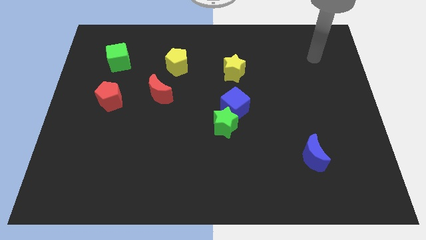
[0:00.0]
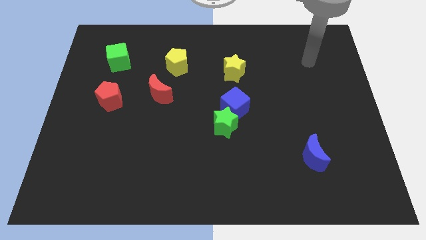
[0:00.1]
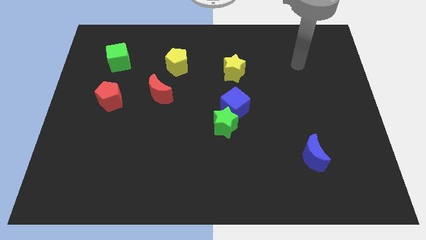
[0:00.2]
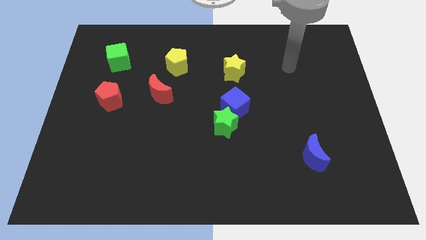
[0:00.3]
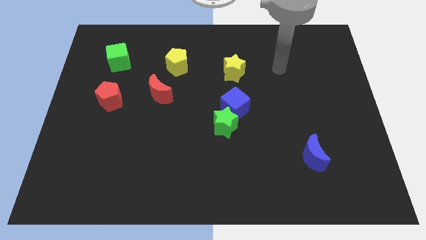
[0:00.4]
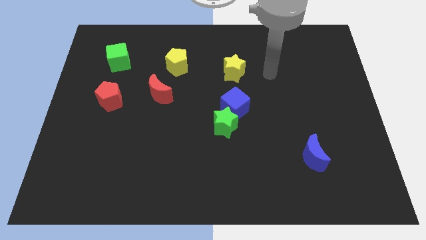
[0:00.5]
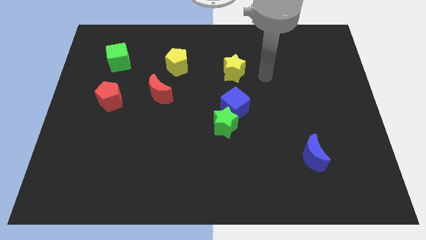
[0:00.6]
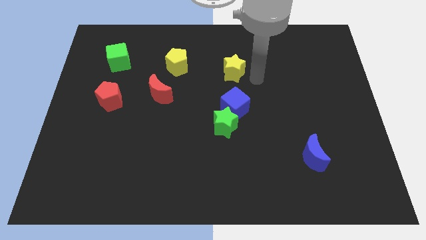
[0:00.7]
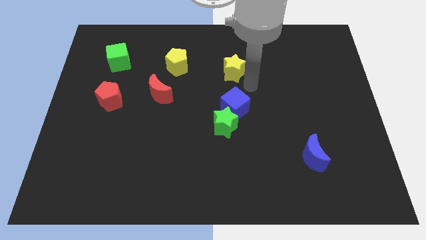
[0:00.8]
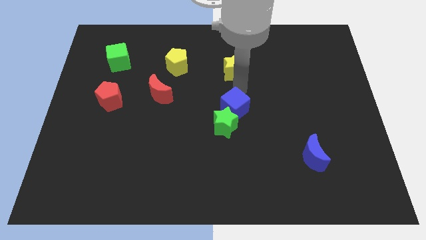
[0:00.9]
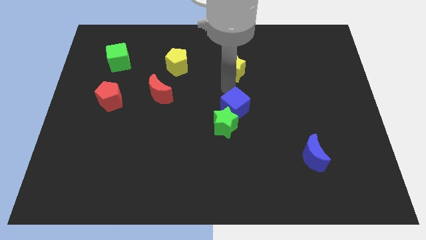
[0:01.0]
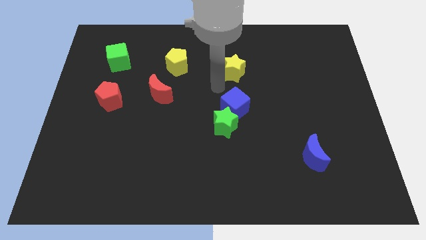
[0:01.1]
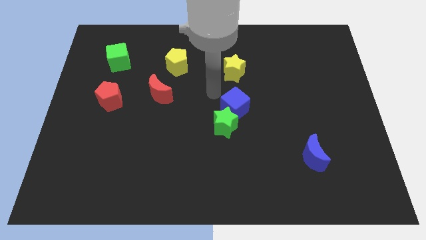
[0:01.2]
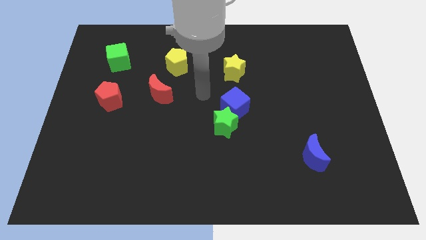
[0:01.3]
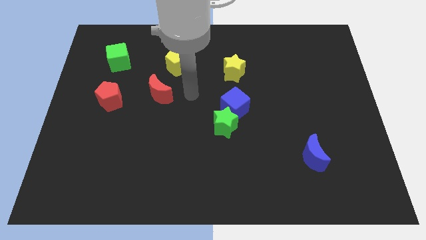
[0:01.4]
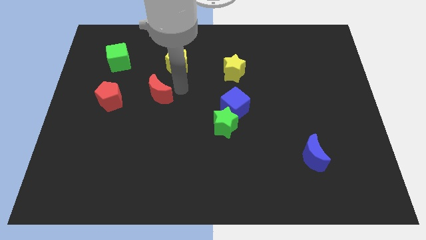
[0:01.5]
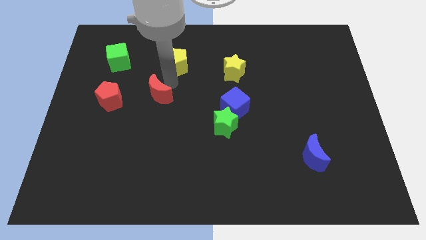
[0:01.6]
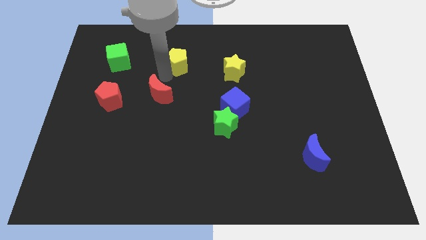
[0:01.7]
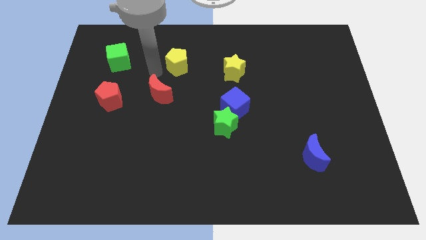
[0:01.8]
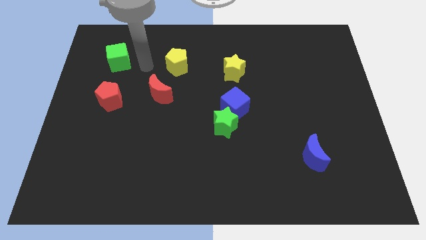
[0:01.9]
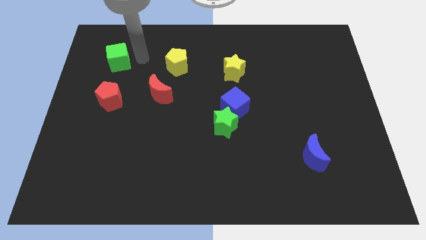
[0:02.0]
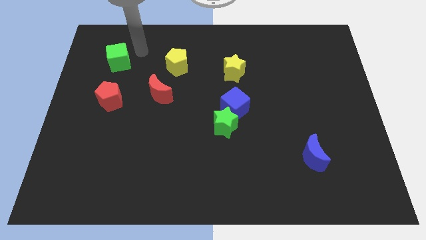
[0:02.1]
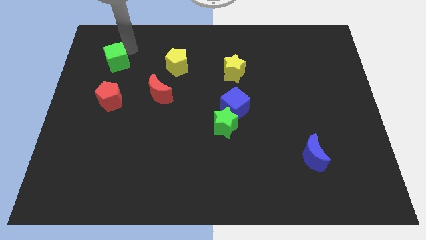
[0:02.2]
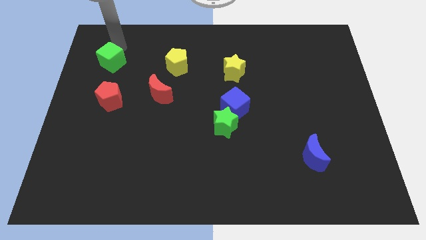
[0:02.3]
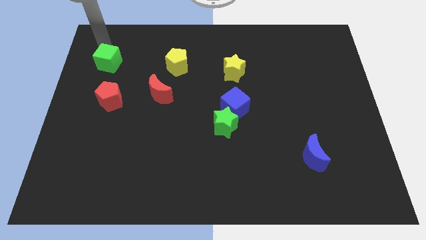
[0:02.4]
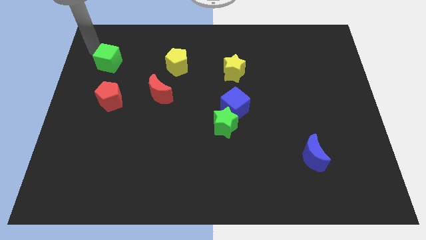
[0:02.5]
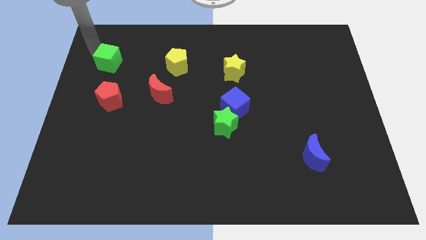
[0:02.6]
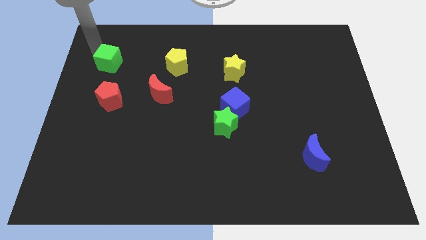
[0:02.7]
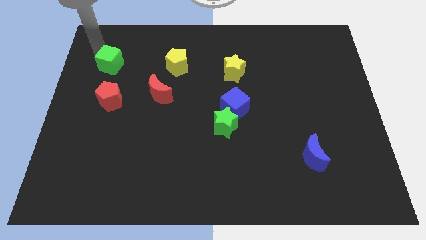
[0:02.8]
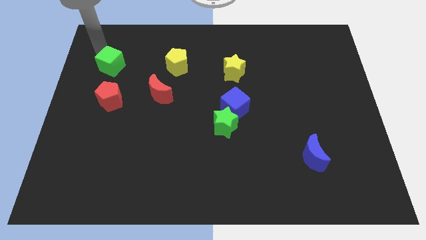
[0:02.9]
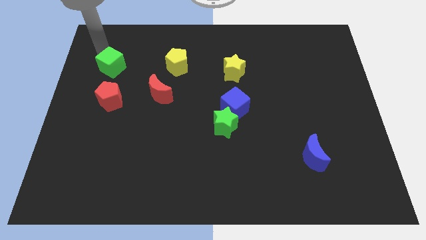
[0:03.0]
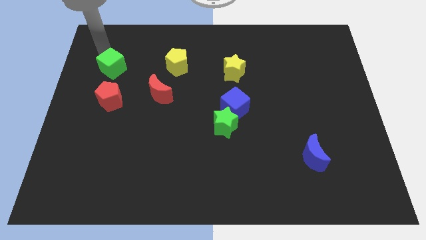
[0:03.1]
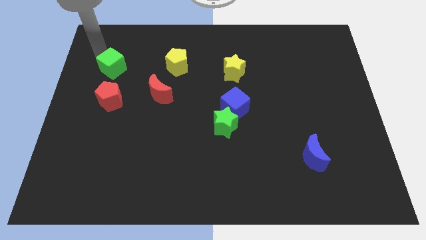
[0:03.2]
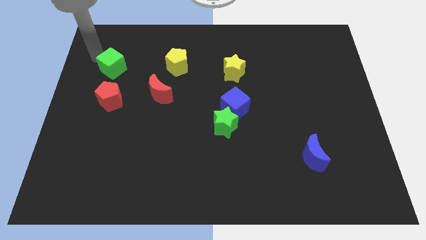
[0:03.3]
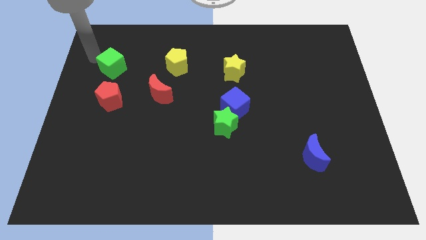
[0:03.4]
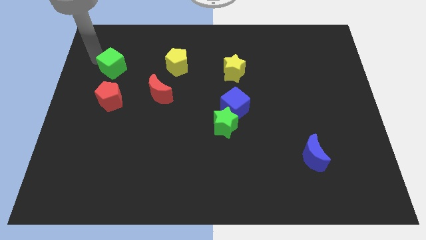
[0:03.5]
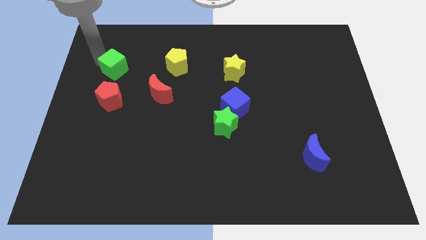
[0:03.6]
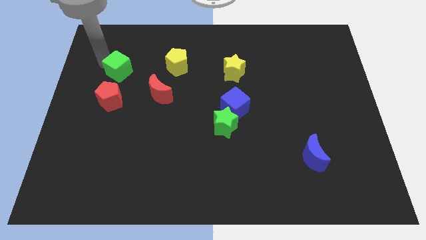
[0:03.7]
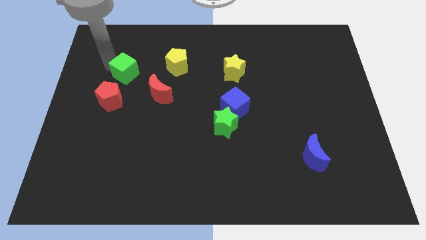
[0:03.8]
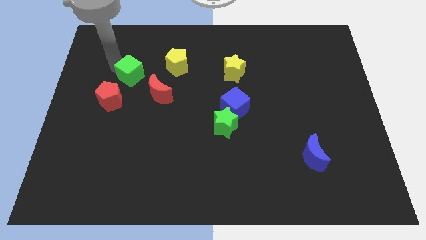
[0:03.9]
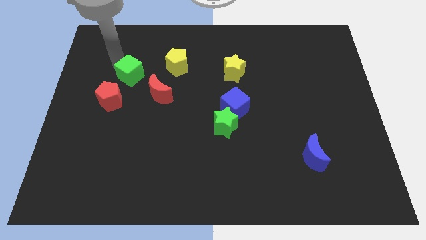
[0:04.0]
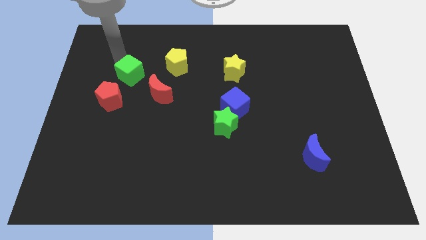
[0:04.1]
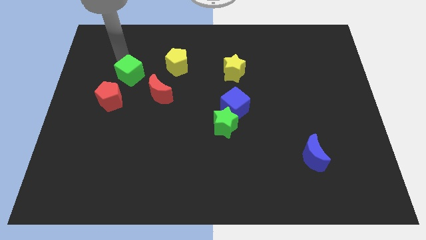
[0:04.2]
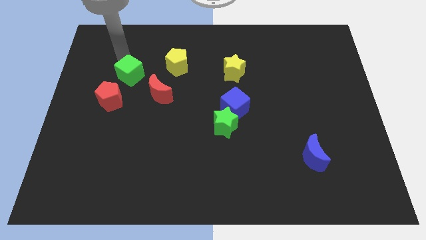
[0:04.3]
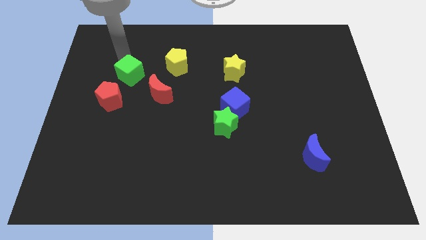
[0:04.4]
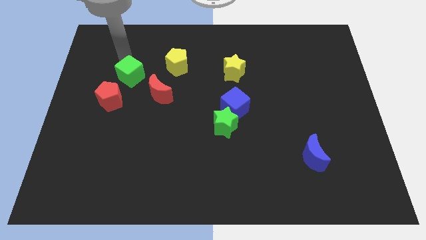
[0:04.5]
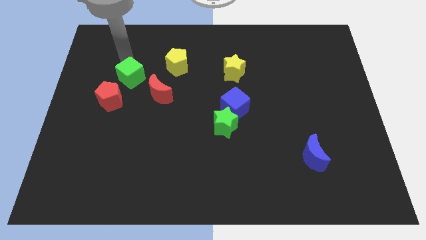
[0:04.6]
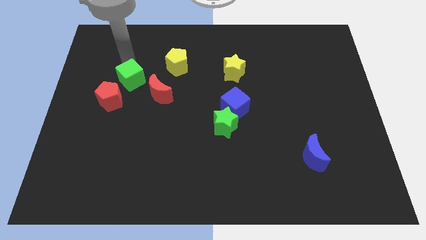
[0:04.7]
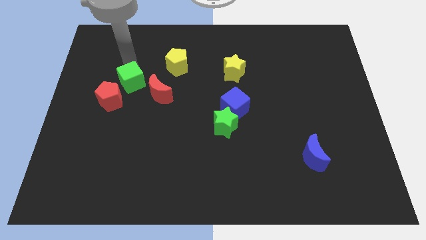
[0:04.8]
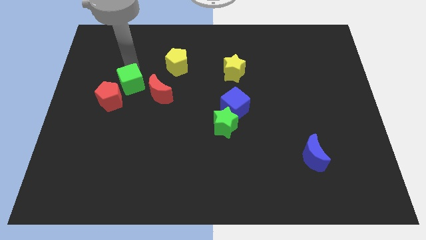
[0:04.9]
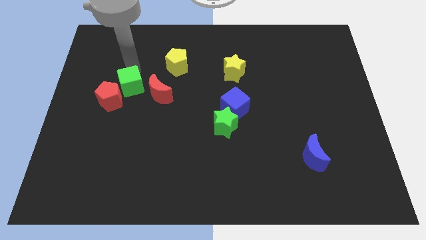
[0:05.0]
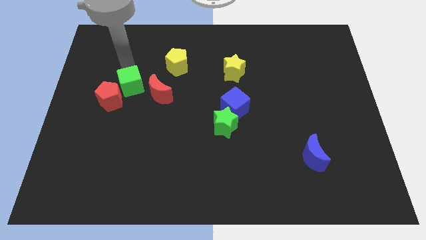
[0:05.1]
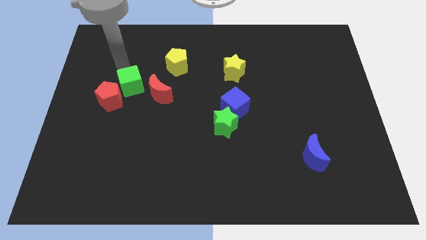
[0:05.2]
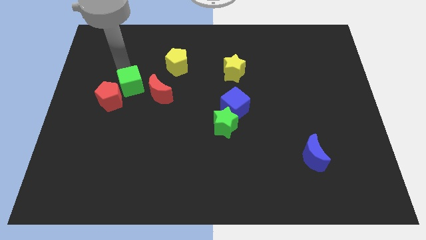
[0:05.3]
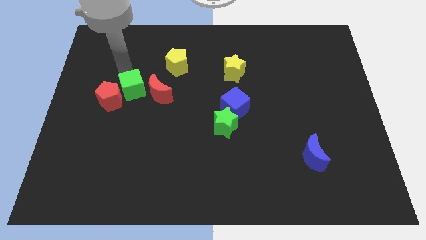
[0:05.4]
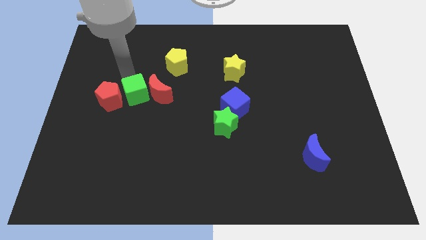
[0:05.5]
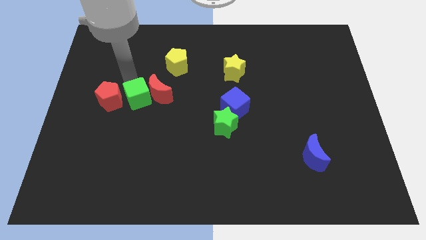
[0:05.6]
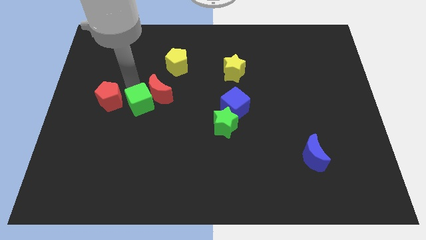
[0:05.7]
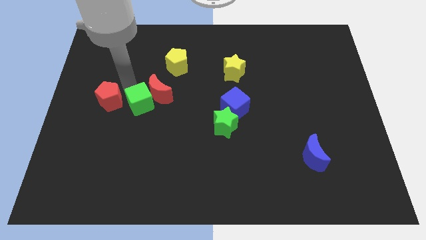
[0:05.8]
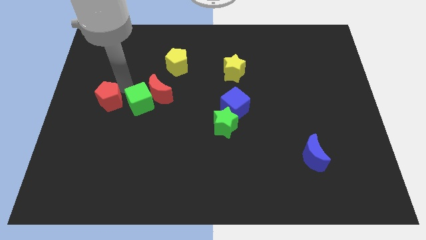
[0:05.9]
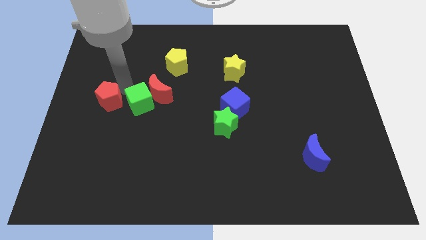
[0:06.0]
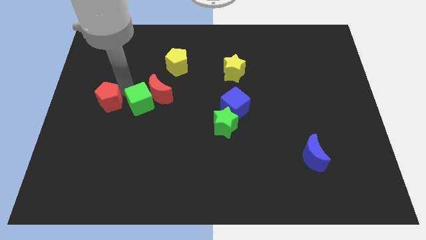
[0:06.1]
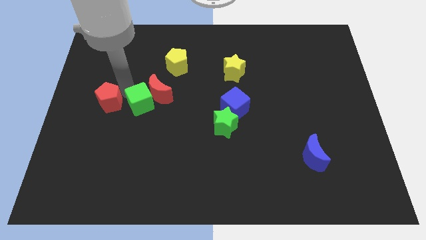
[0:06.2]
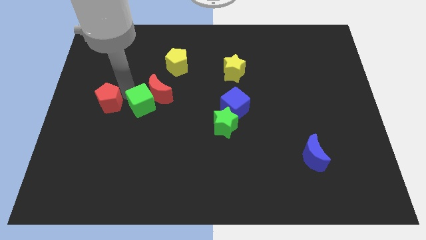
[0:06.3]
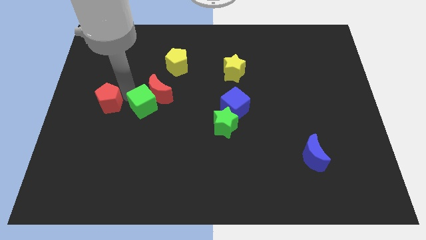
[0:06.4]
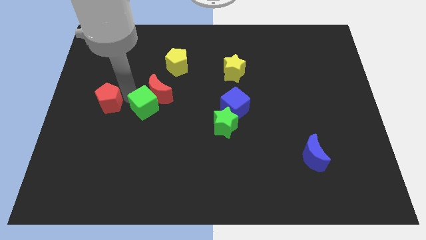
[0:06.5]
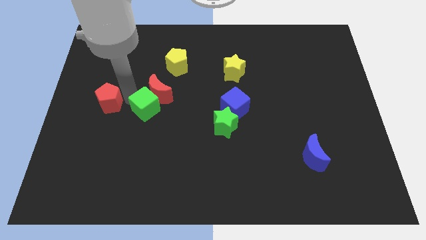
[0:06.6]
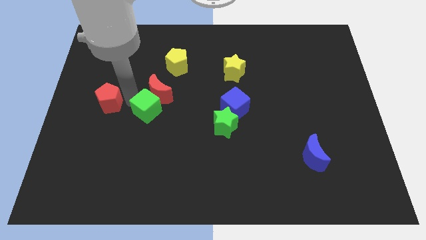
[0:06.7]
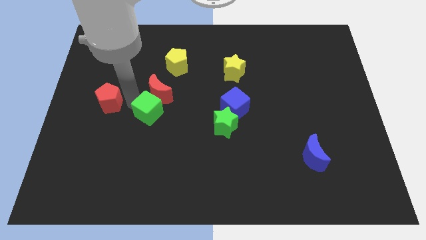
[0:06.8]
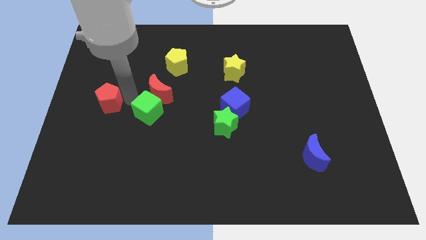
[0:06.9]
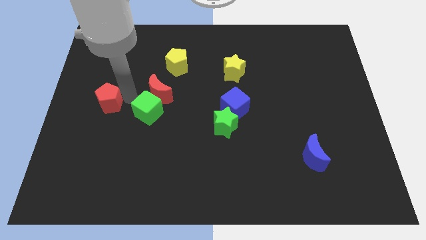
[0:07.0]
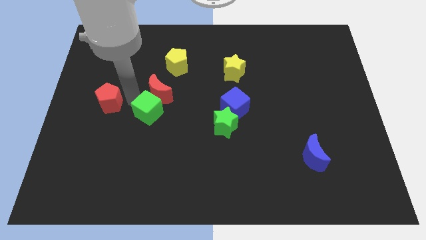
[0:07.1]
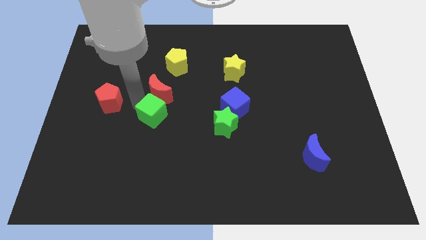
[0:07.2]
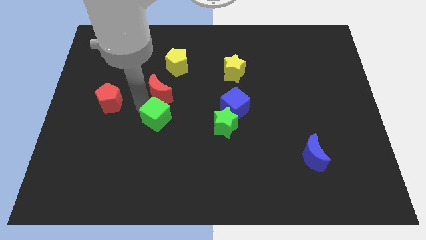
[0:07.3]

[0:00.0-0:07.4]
move the green cube down and then to the right

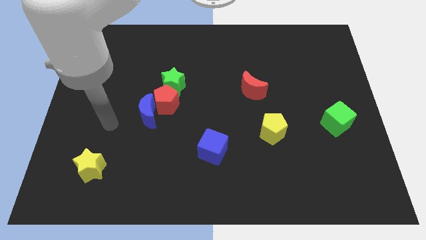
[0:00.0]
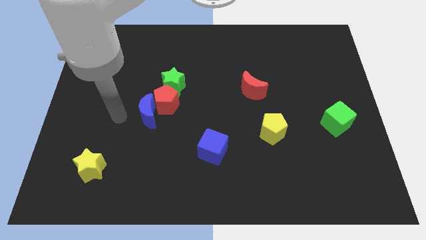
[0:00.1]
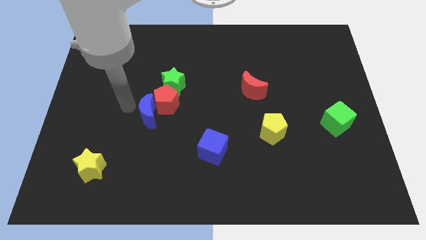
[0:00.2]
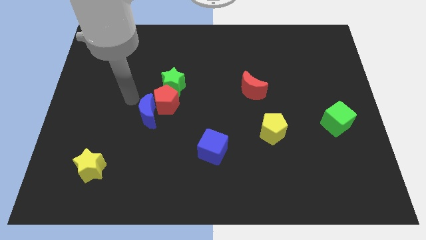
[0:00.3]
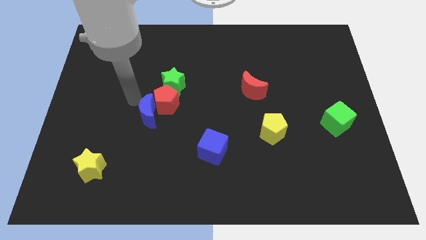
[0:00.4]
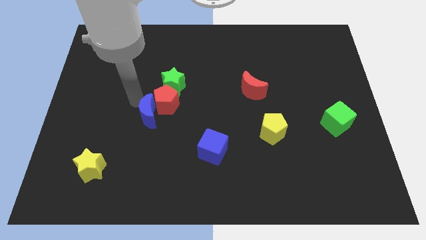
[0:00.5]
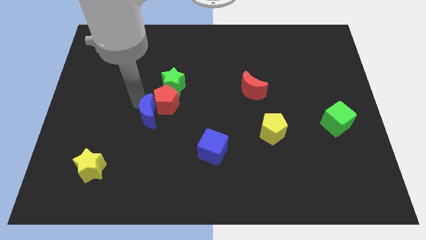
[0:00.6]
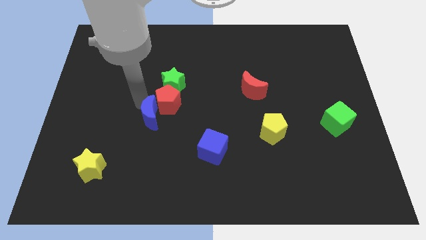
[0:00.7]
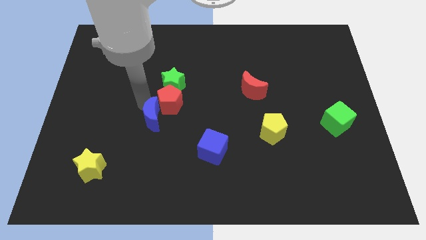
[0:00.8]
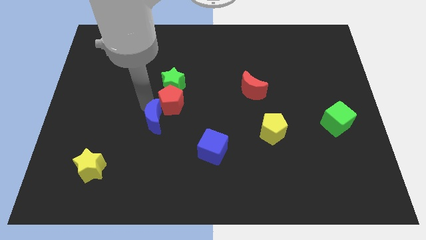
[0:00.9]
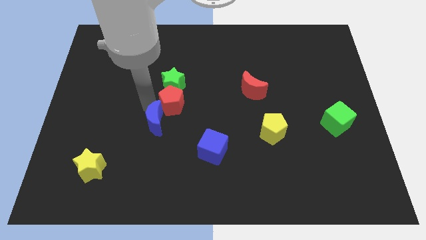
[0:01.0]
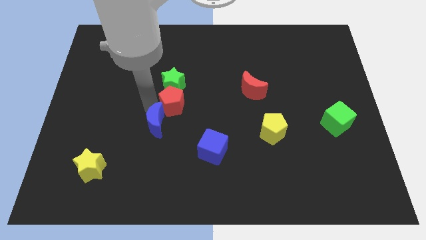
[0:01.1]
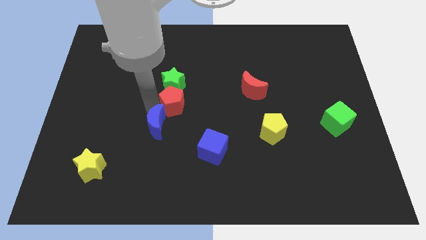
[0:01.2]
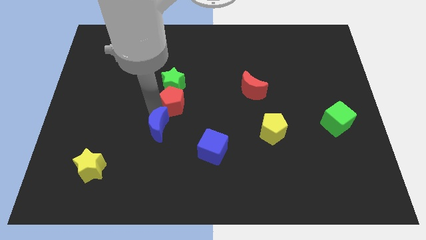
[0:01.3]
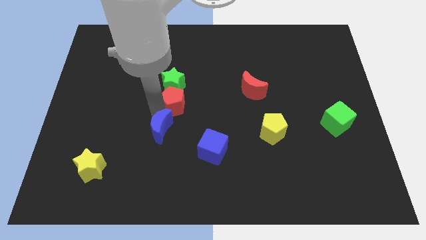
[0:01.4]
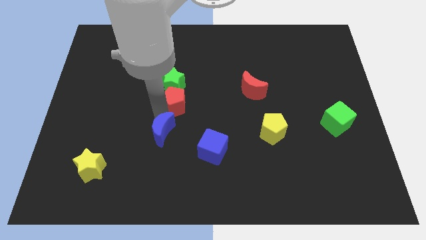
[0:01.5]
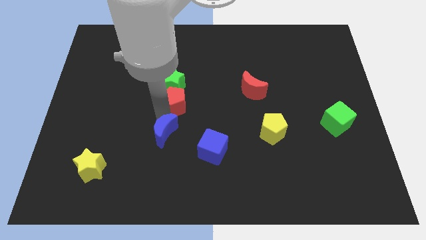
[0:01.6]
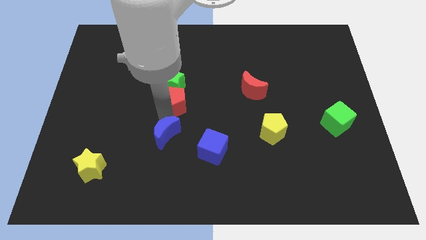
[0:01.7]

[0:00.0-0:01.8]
slide the blue moon somewhat down and right diagonally
